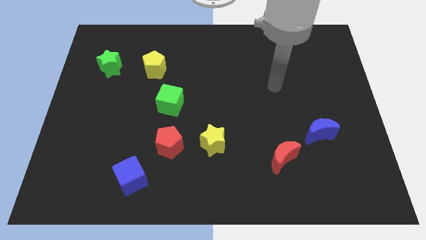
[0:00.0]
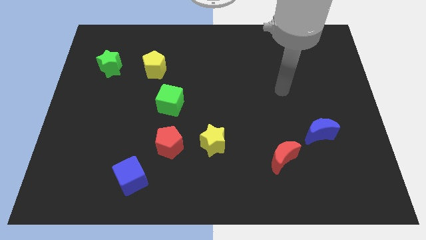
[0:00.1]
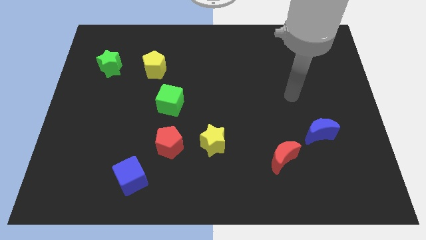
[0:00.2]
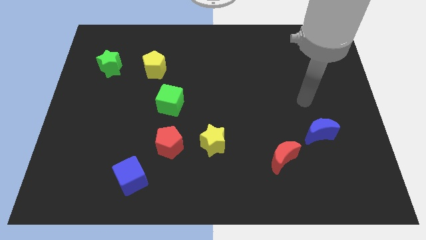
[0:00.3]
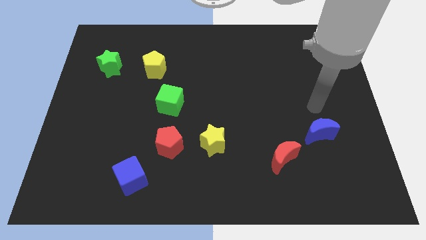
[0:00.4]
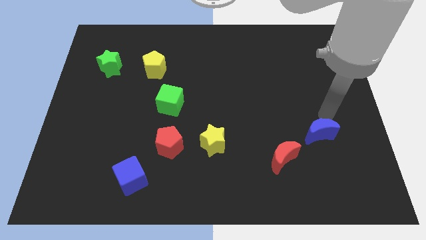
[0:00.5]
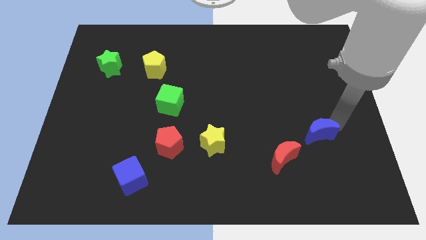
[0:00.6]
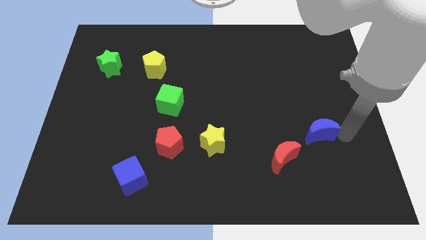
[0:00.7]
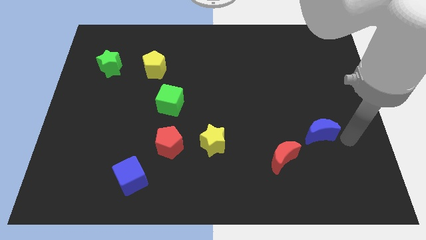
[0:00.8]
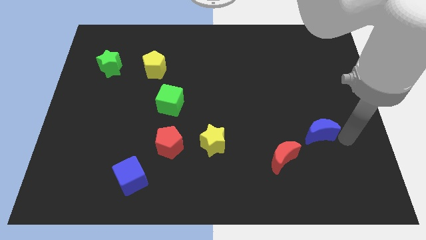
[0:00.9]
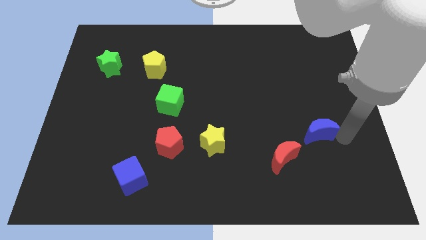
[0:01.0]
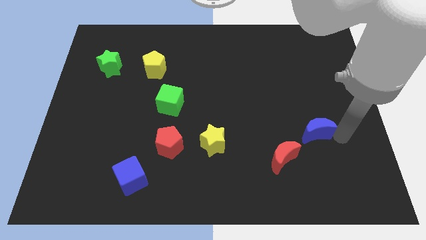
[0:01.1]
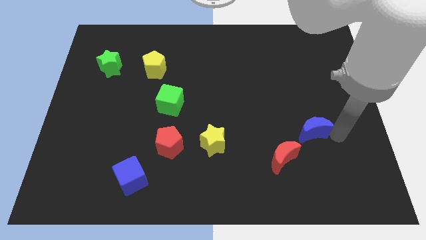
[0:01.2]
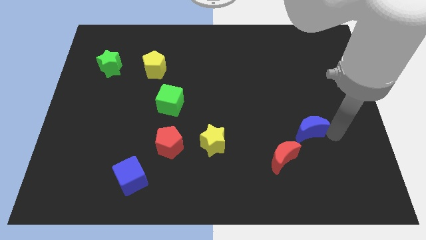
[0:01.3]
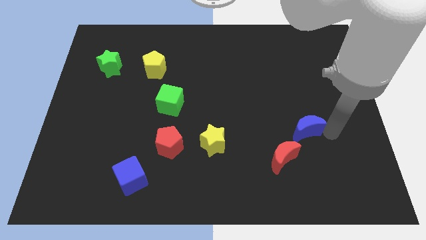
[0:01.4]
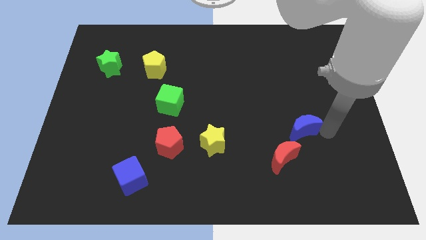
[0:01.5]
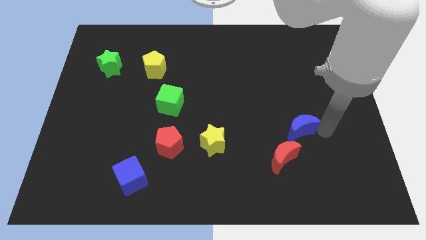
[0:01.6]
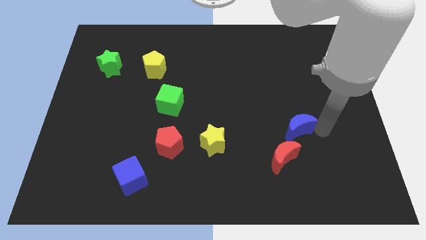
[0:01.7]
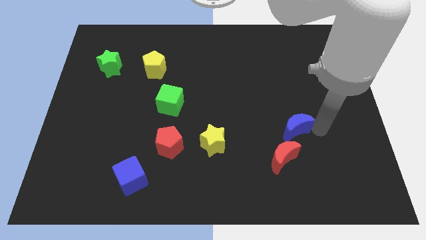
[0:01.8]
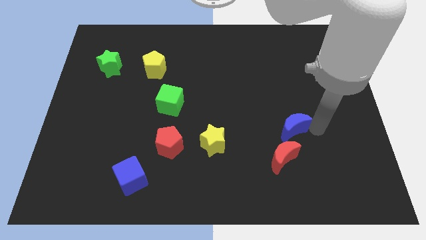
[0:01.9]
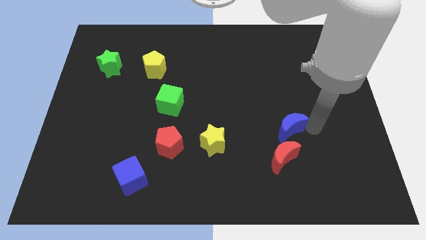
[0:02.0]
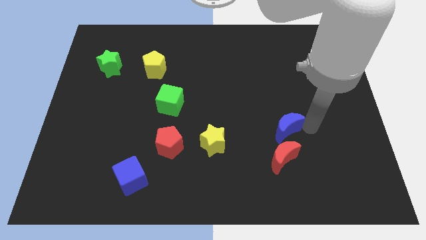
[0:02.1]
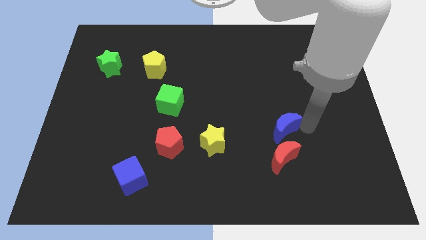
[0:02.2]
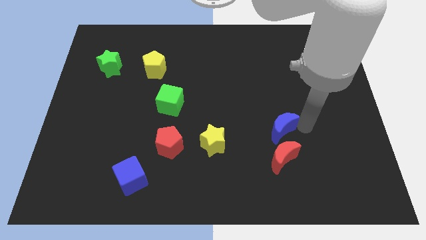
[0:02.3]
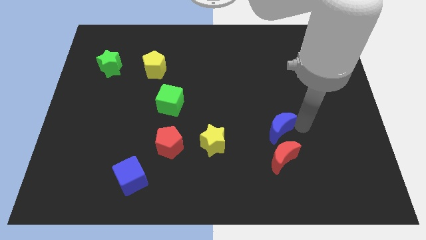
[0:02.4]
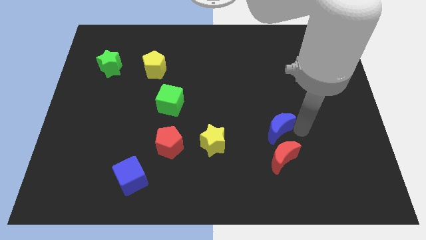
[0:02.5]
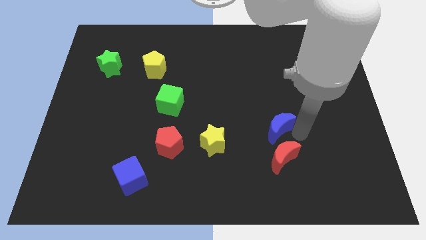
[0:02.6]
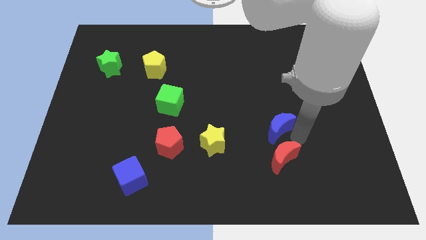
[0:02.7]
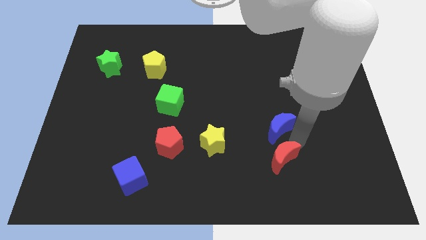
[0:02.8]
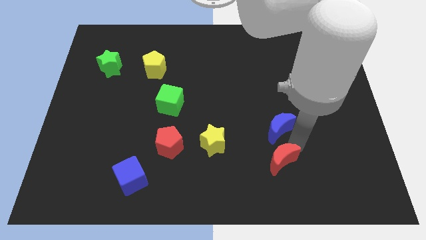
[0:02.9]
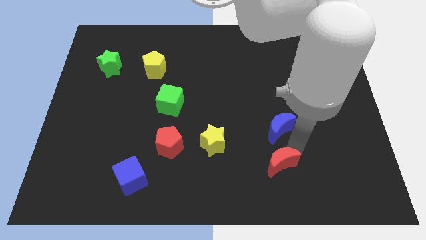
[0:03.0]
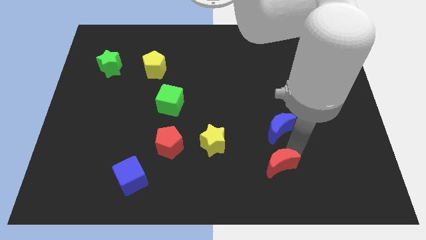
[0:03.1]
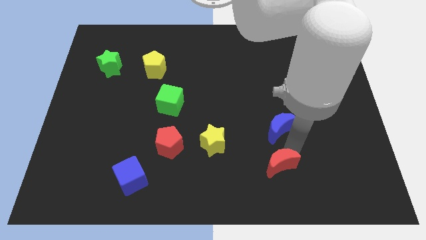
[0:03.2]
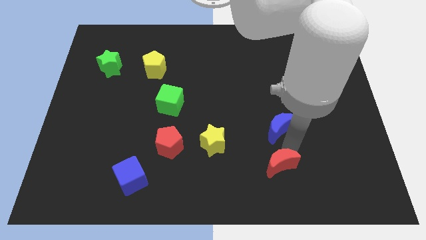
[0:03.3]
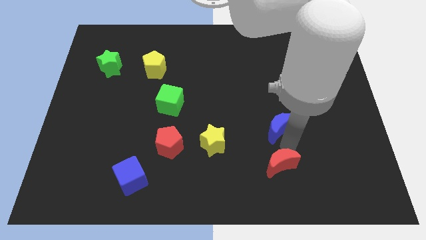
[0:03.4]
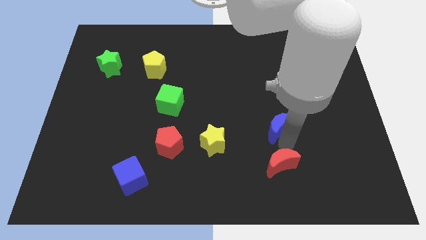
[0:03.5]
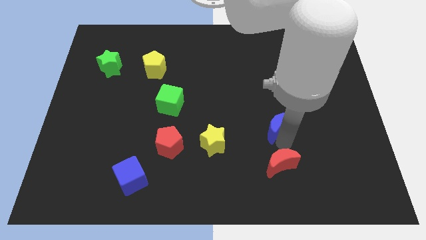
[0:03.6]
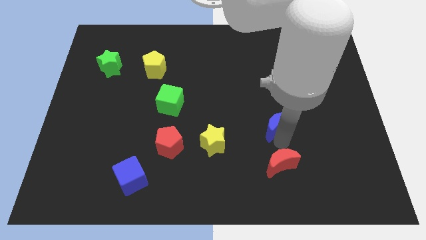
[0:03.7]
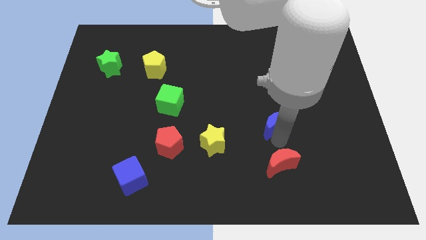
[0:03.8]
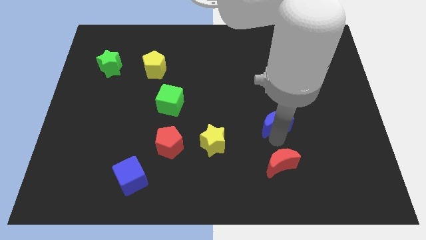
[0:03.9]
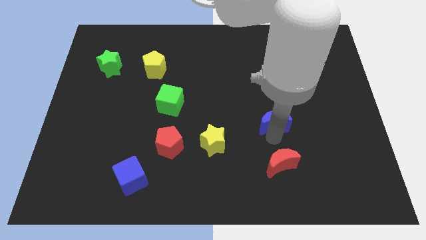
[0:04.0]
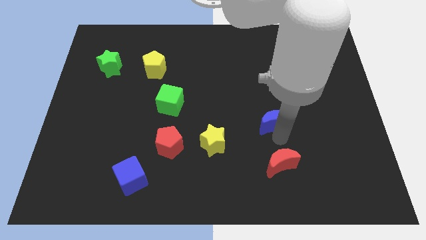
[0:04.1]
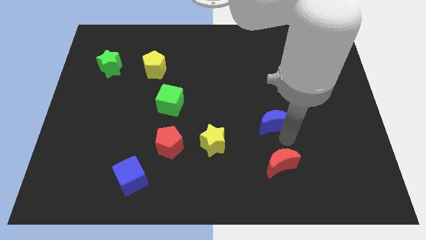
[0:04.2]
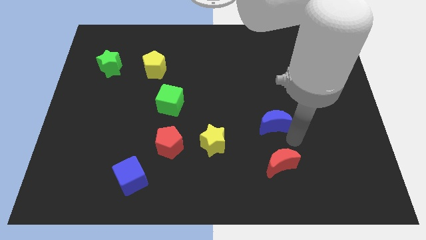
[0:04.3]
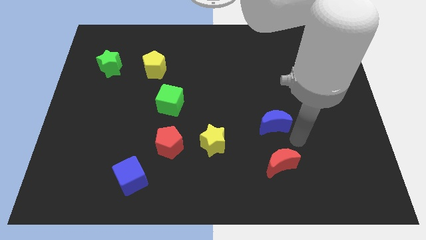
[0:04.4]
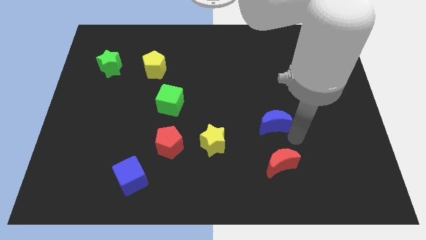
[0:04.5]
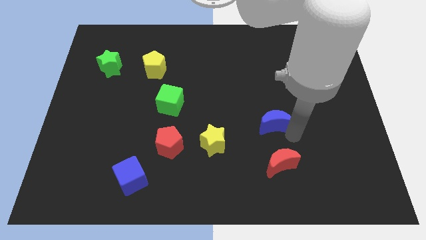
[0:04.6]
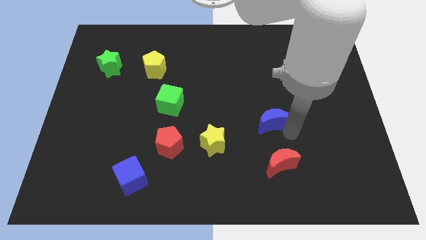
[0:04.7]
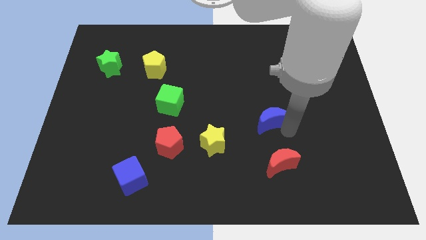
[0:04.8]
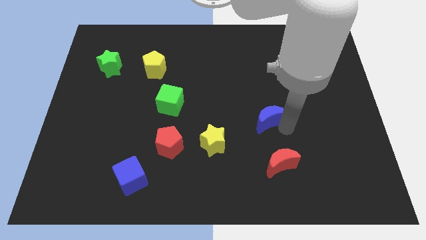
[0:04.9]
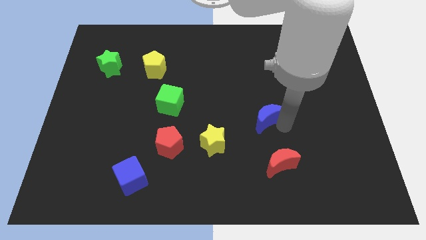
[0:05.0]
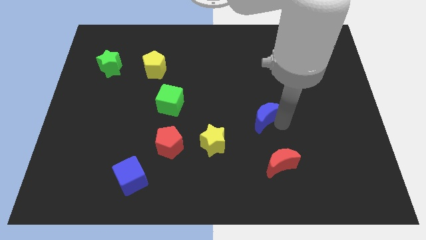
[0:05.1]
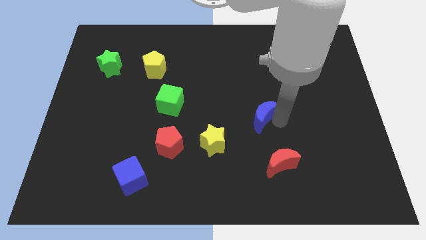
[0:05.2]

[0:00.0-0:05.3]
put the blue moon to the middle of the board

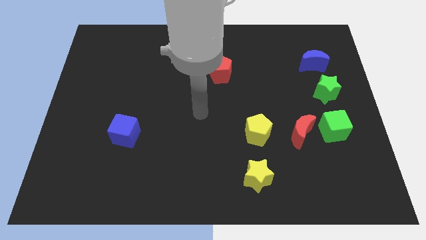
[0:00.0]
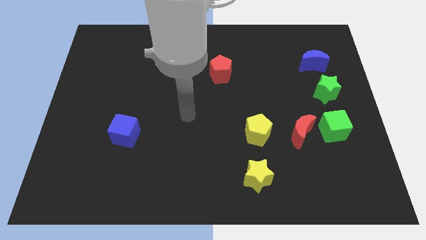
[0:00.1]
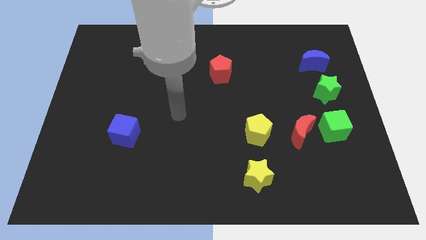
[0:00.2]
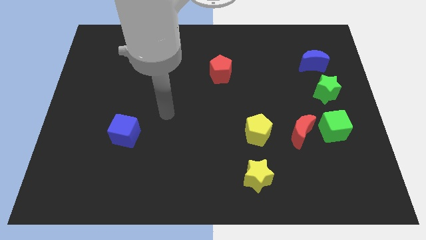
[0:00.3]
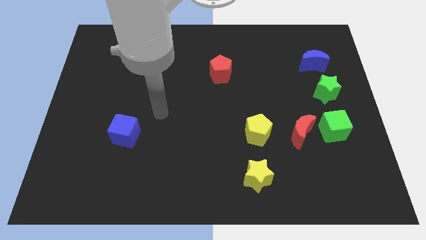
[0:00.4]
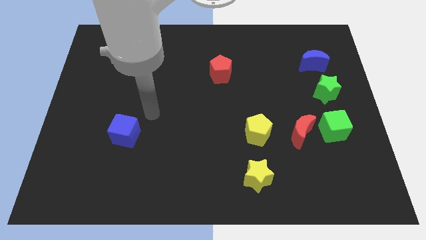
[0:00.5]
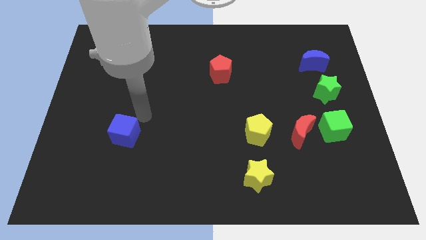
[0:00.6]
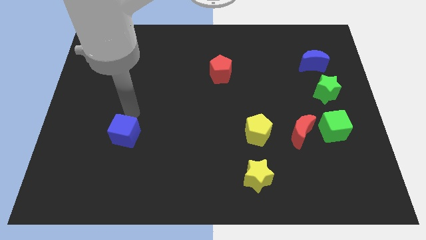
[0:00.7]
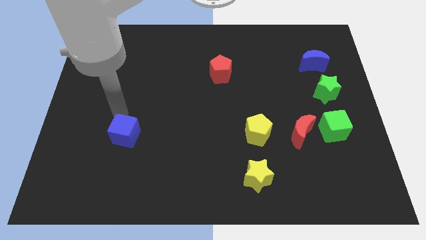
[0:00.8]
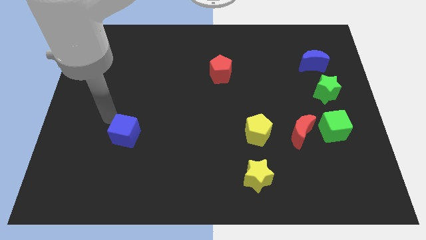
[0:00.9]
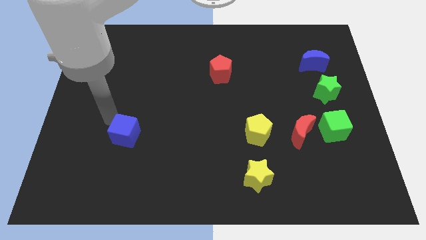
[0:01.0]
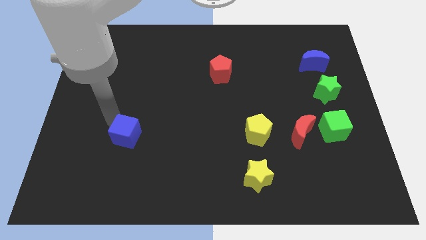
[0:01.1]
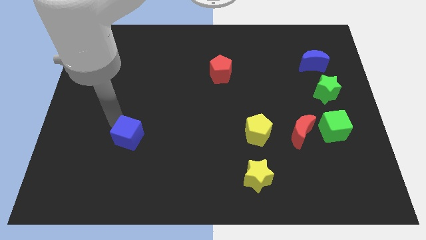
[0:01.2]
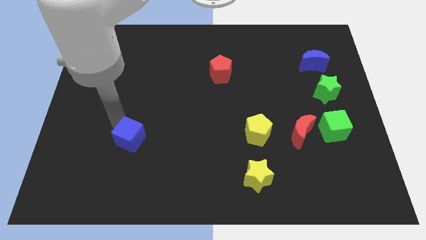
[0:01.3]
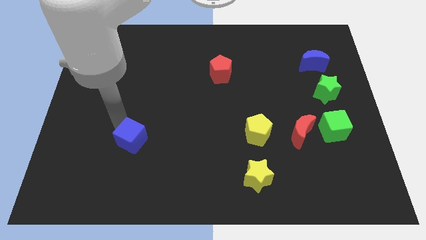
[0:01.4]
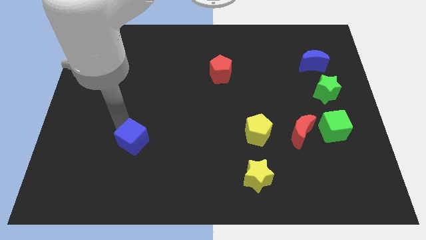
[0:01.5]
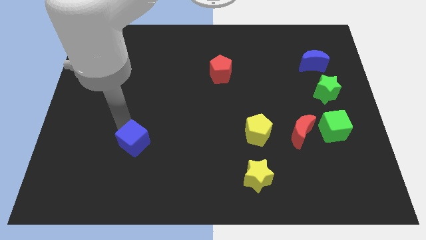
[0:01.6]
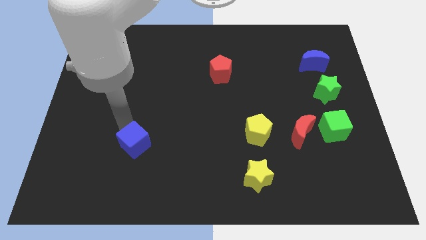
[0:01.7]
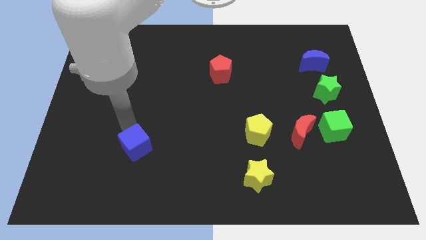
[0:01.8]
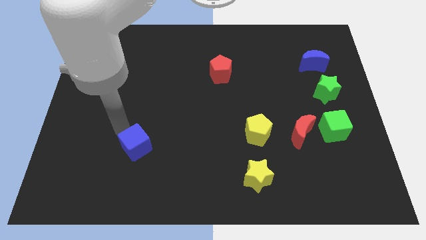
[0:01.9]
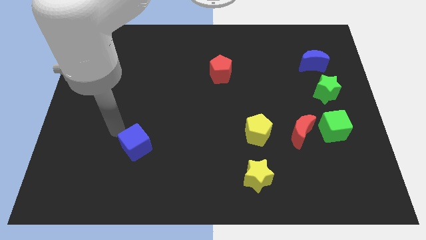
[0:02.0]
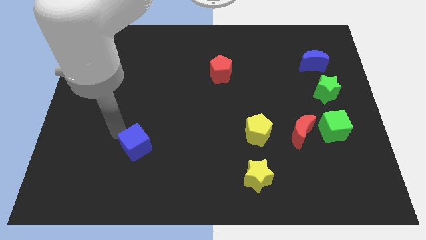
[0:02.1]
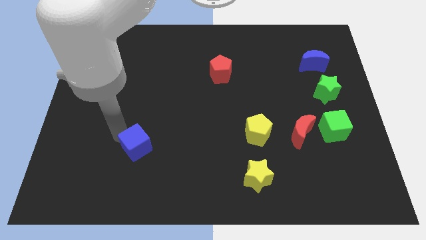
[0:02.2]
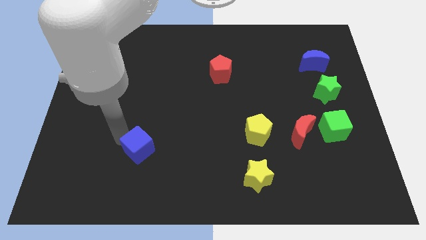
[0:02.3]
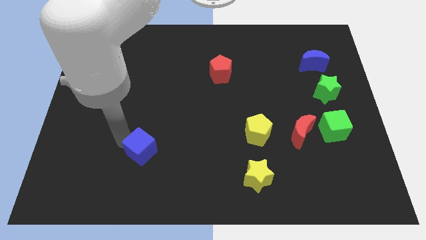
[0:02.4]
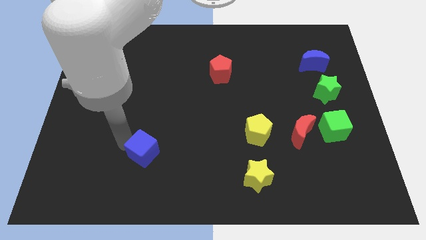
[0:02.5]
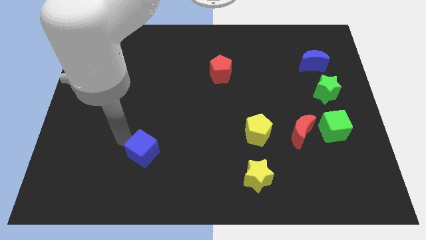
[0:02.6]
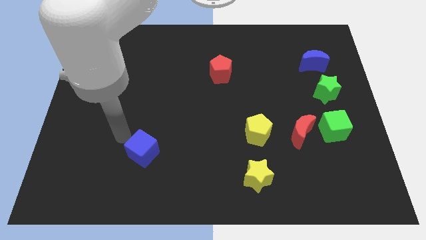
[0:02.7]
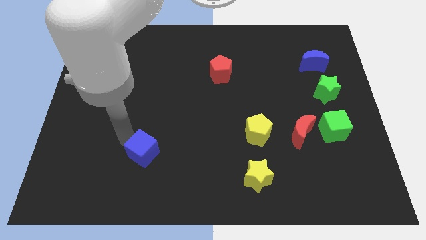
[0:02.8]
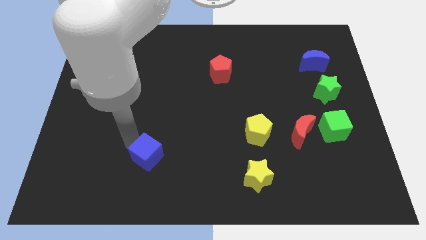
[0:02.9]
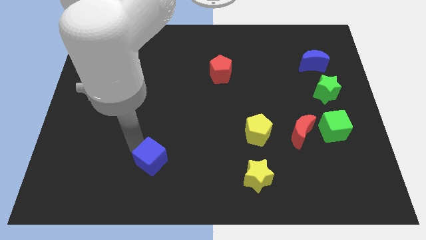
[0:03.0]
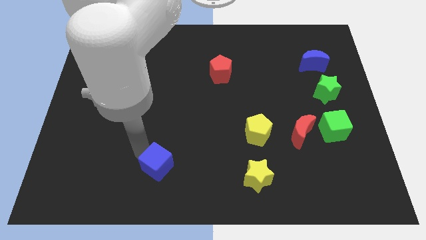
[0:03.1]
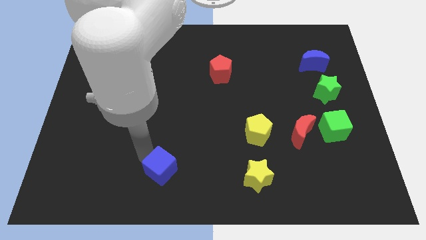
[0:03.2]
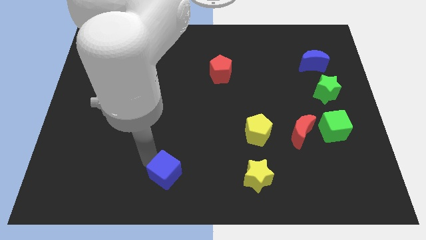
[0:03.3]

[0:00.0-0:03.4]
push the blue cube to the bottom

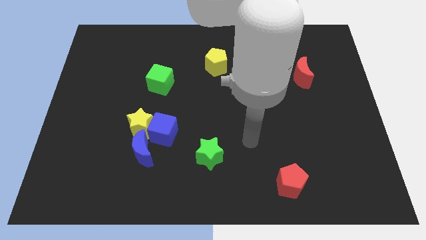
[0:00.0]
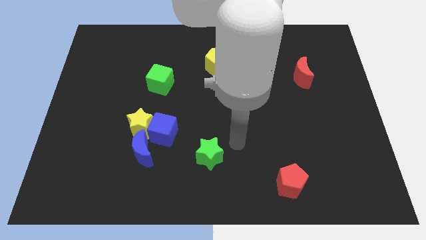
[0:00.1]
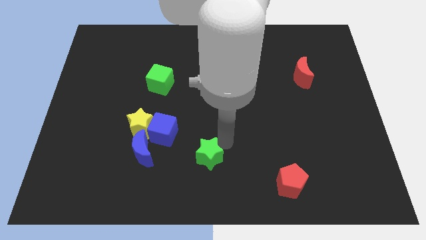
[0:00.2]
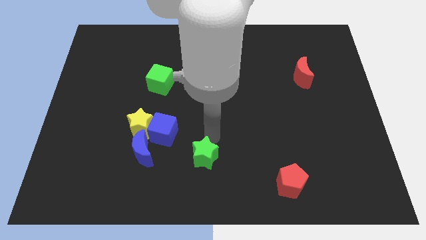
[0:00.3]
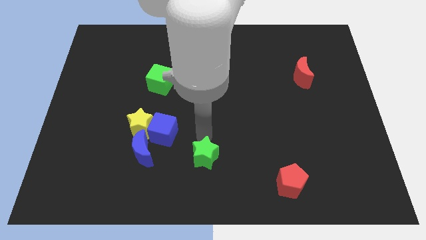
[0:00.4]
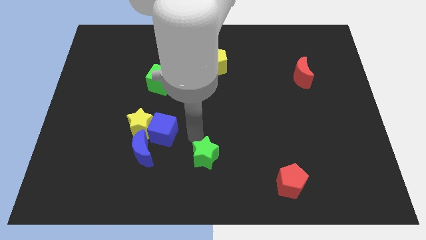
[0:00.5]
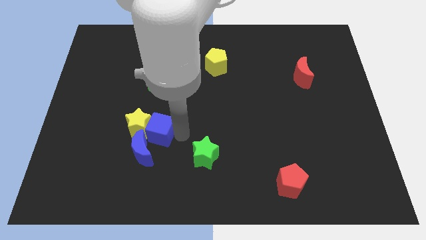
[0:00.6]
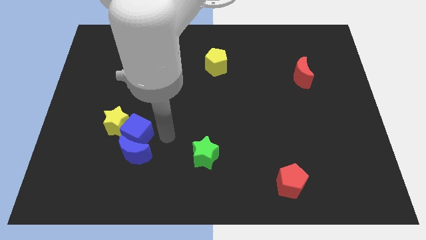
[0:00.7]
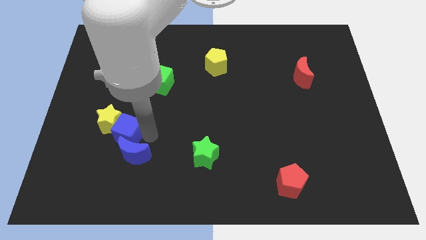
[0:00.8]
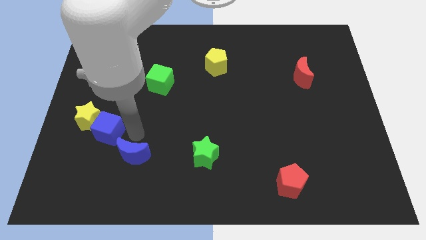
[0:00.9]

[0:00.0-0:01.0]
push the yellow star to the left side of the board
